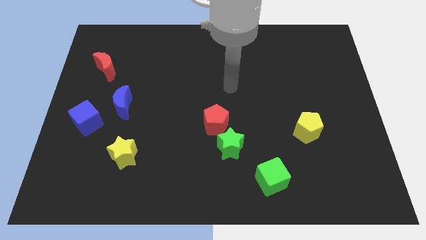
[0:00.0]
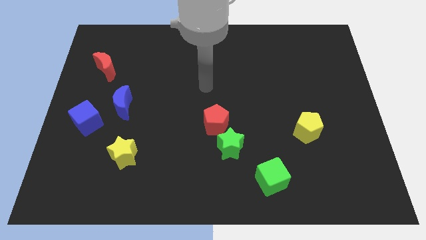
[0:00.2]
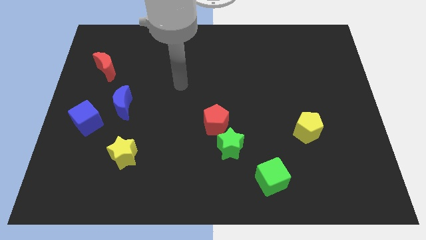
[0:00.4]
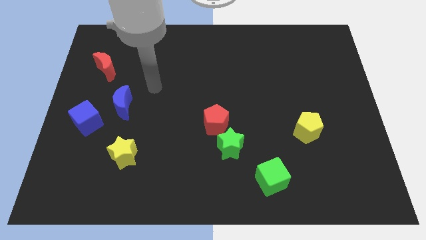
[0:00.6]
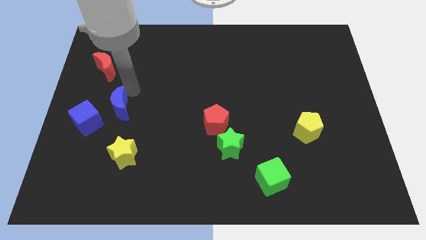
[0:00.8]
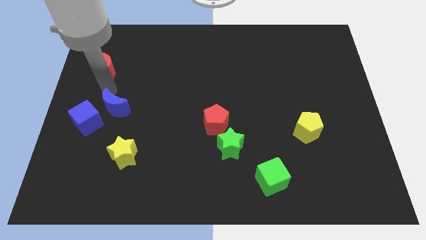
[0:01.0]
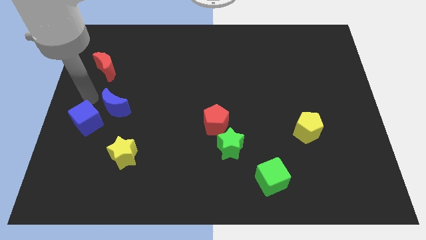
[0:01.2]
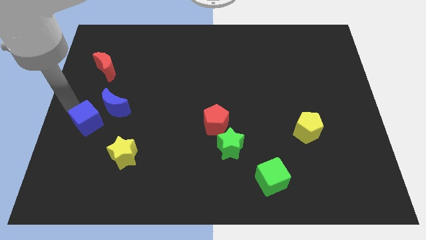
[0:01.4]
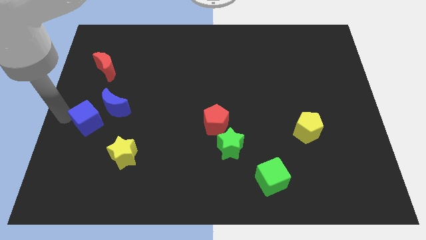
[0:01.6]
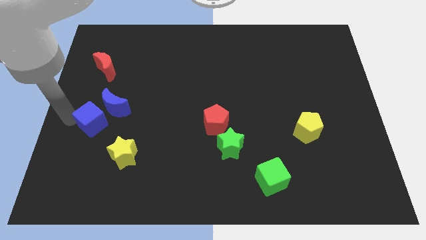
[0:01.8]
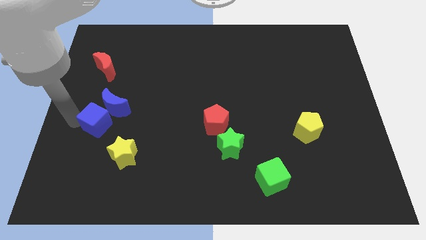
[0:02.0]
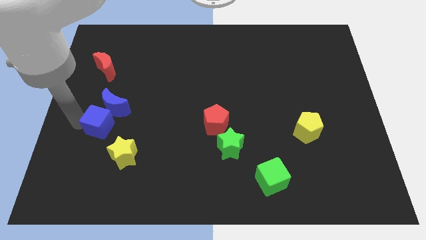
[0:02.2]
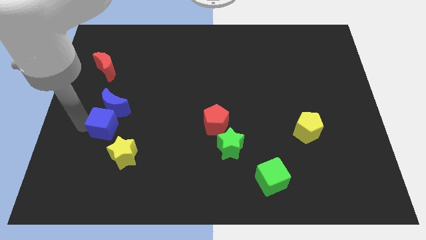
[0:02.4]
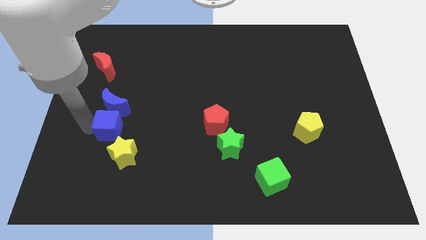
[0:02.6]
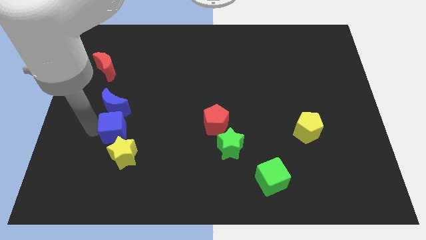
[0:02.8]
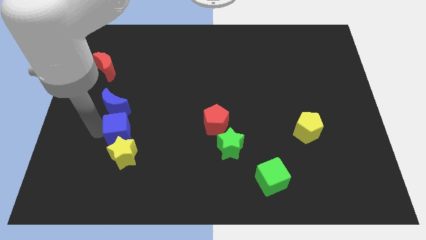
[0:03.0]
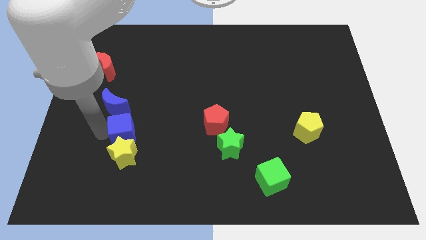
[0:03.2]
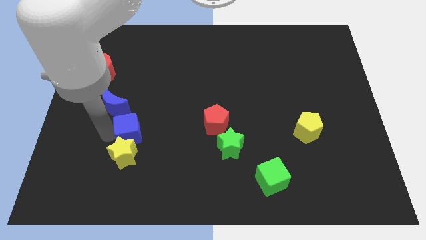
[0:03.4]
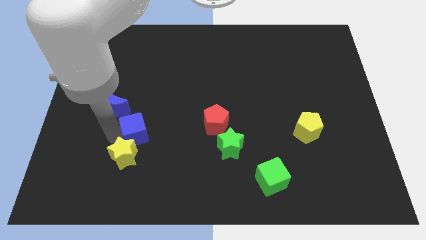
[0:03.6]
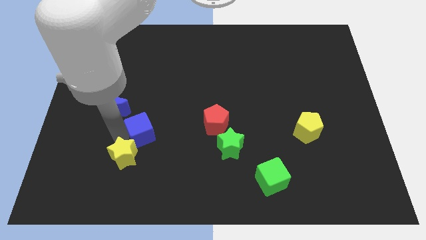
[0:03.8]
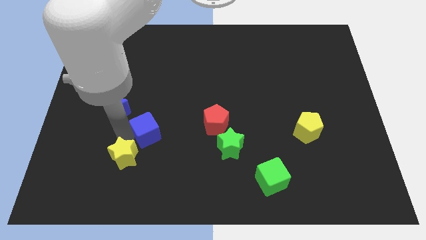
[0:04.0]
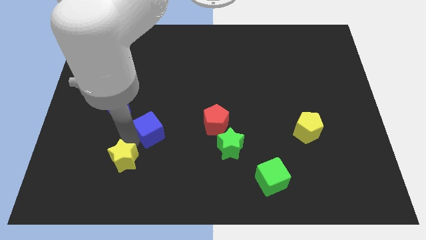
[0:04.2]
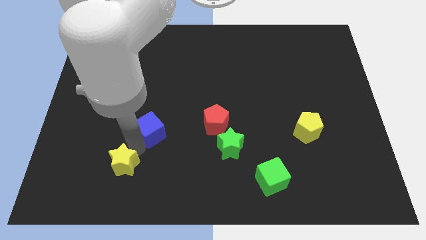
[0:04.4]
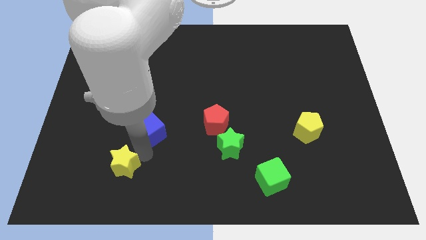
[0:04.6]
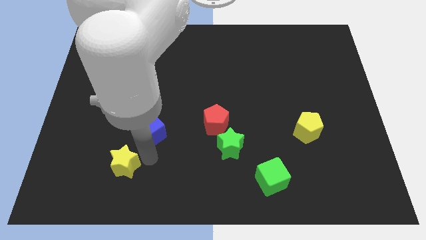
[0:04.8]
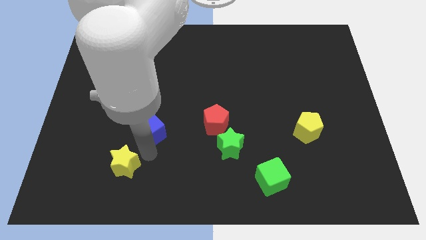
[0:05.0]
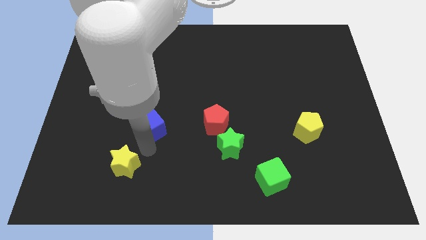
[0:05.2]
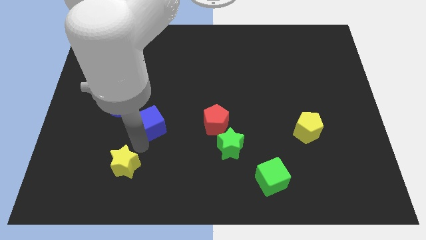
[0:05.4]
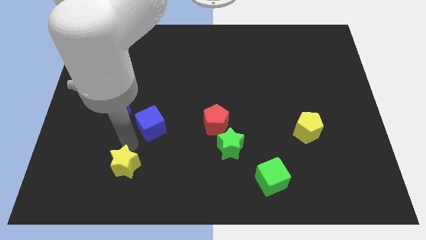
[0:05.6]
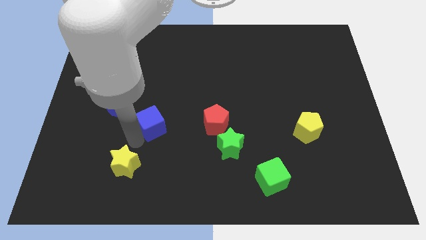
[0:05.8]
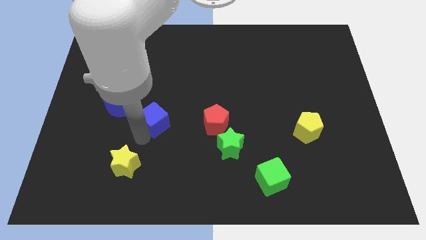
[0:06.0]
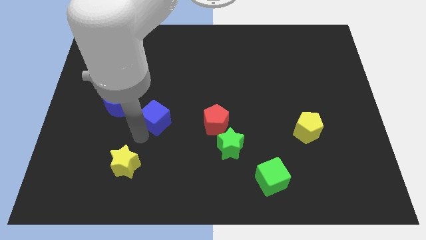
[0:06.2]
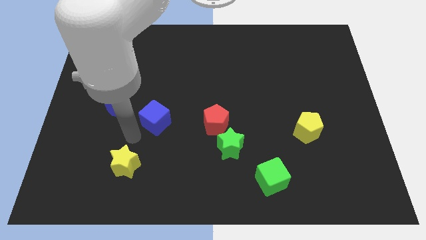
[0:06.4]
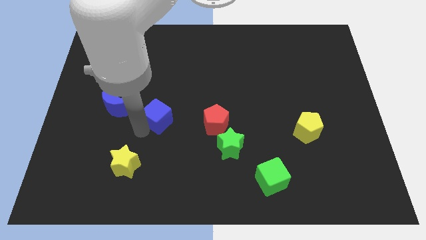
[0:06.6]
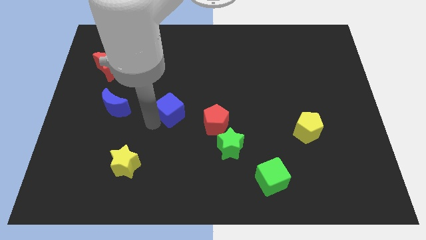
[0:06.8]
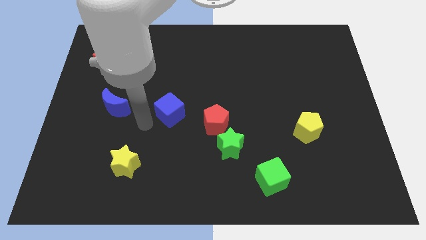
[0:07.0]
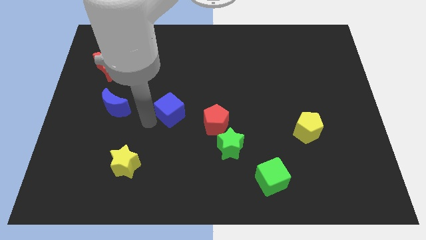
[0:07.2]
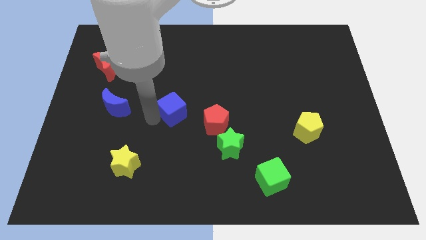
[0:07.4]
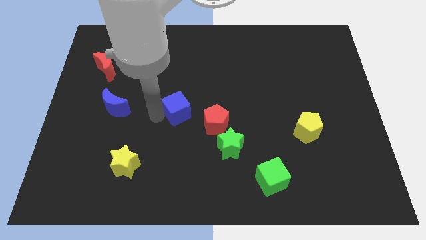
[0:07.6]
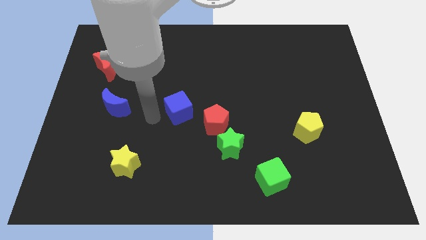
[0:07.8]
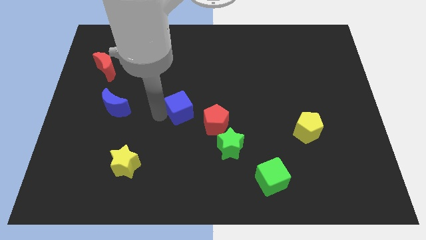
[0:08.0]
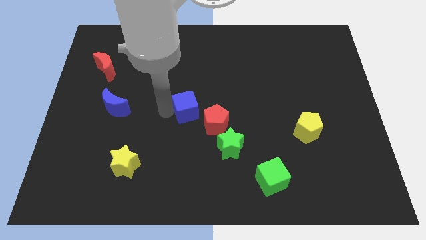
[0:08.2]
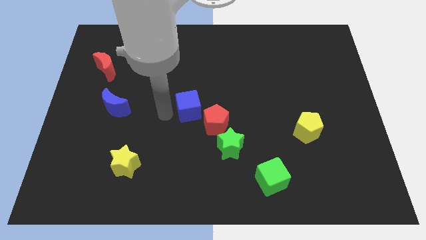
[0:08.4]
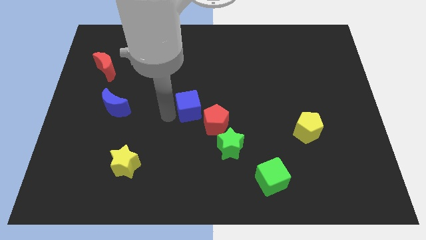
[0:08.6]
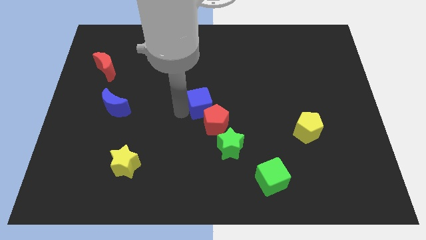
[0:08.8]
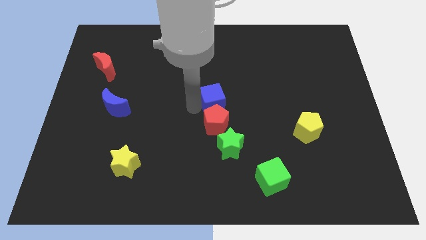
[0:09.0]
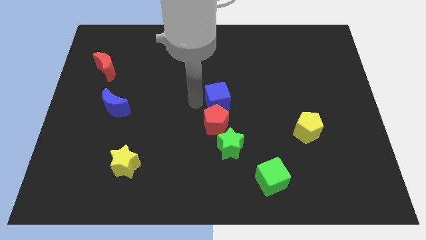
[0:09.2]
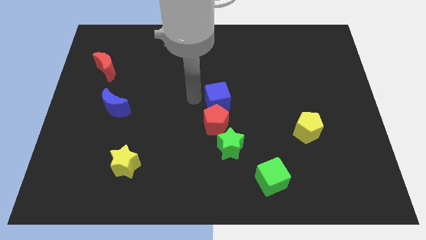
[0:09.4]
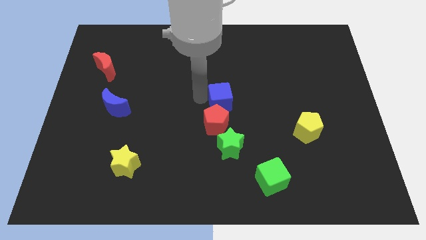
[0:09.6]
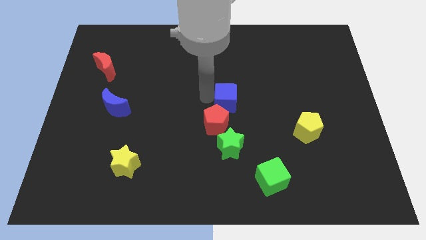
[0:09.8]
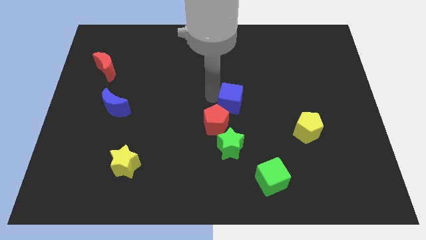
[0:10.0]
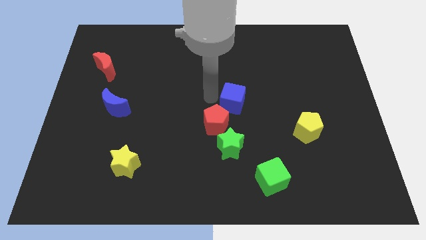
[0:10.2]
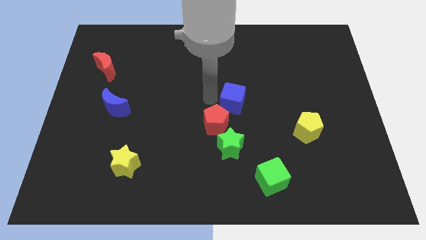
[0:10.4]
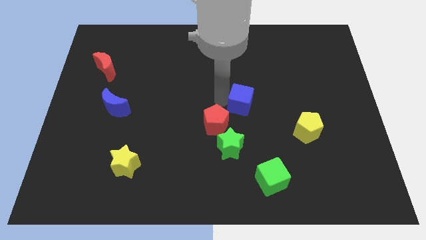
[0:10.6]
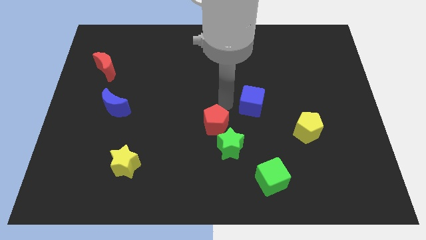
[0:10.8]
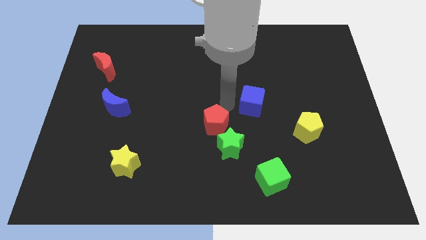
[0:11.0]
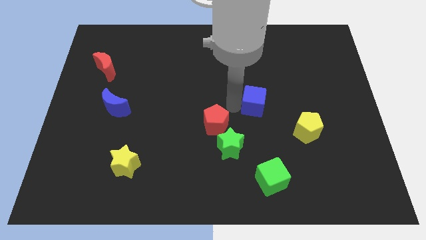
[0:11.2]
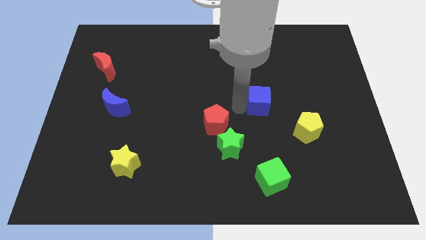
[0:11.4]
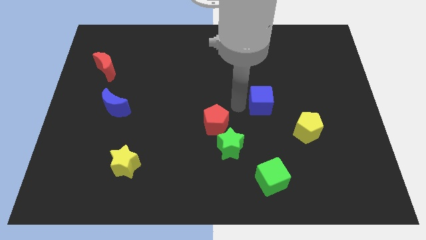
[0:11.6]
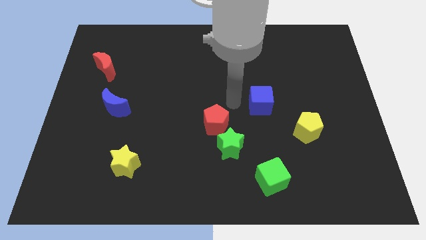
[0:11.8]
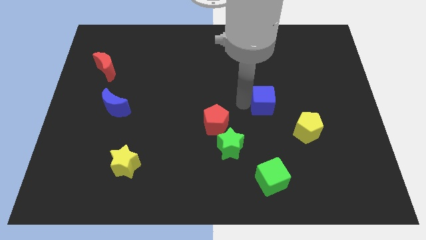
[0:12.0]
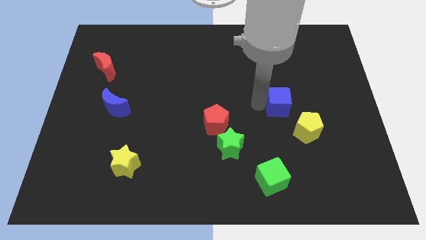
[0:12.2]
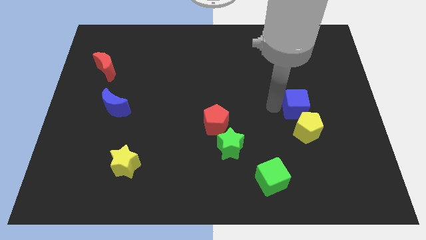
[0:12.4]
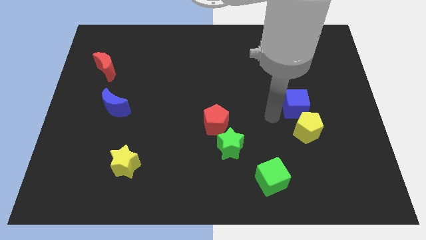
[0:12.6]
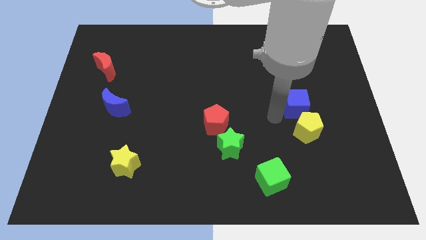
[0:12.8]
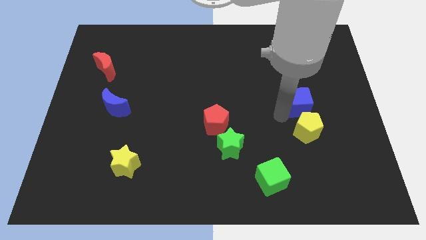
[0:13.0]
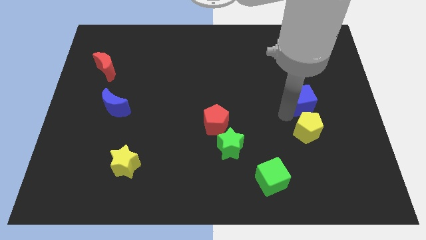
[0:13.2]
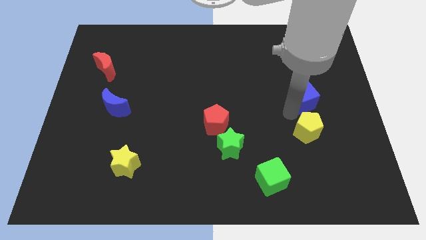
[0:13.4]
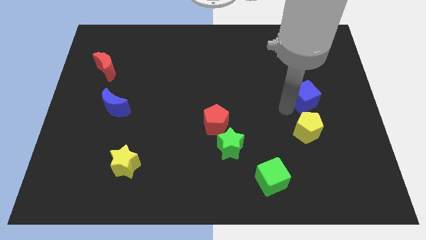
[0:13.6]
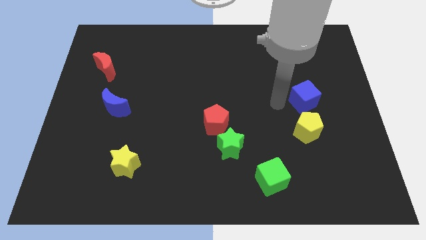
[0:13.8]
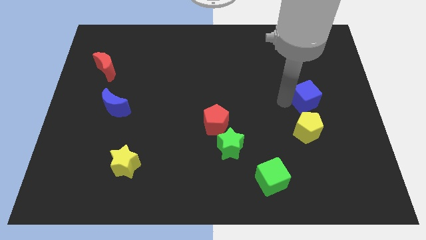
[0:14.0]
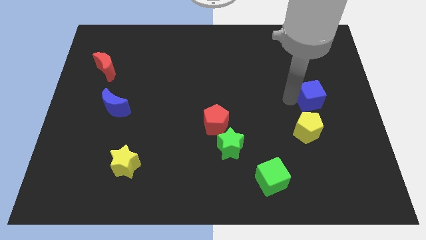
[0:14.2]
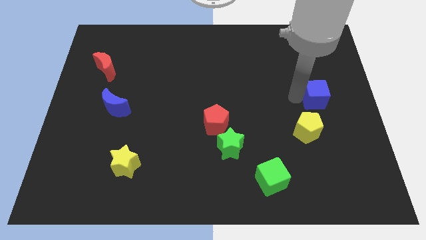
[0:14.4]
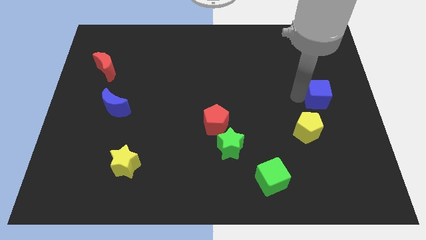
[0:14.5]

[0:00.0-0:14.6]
move the blue cube to the right side

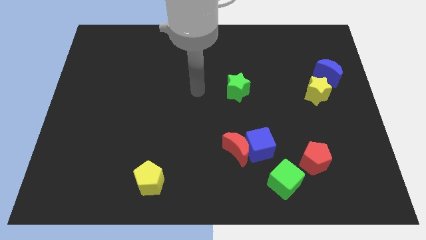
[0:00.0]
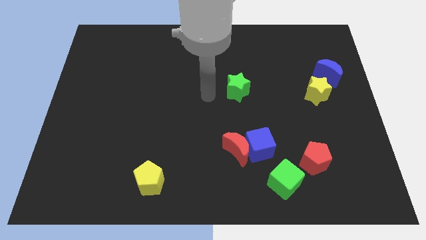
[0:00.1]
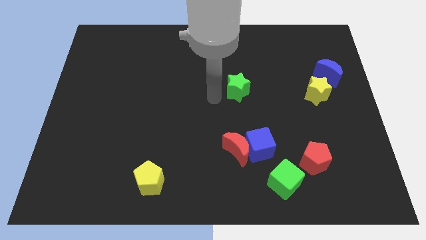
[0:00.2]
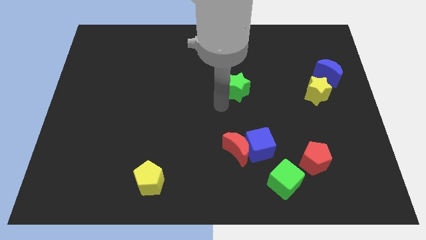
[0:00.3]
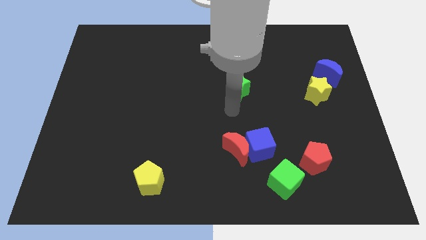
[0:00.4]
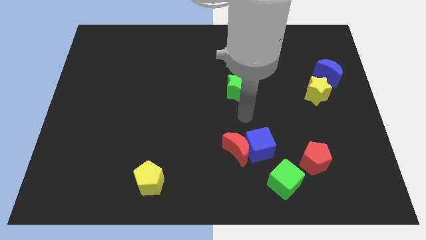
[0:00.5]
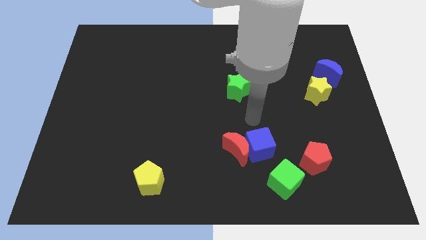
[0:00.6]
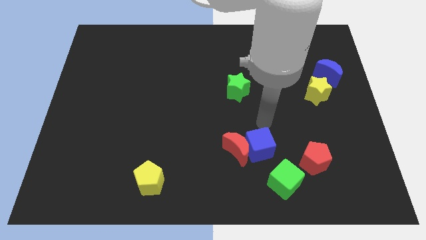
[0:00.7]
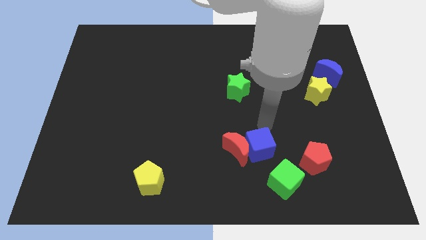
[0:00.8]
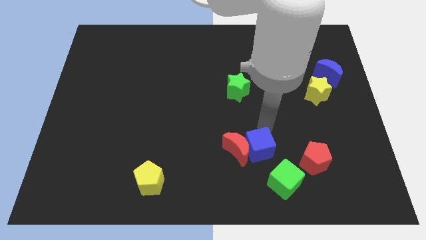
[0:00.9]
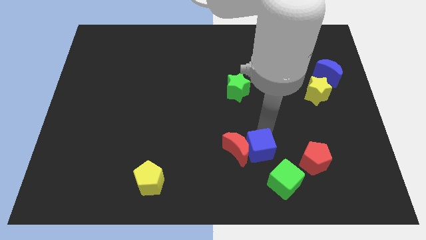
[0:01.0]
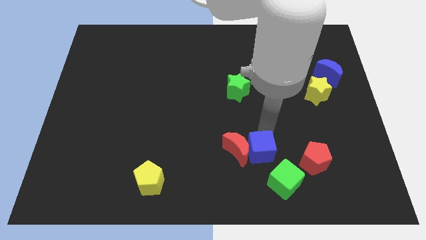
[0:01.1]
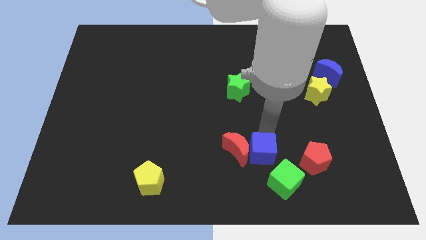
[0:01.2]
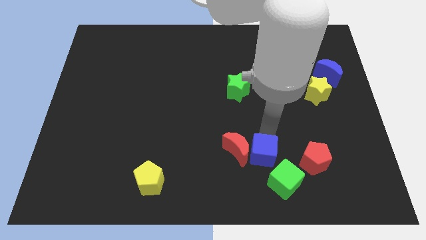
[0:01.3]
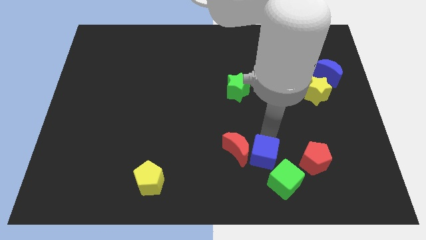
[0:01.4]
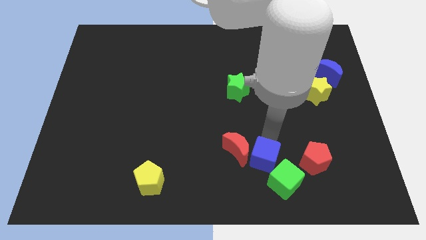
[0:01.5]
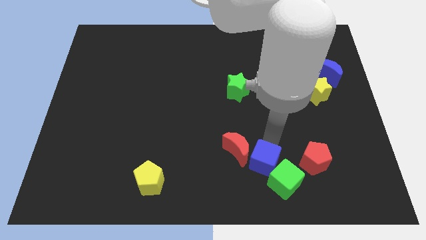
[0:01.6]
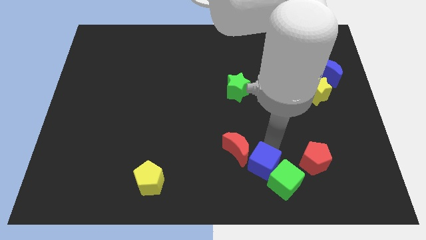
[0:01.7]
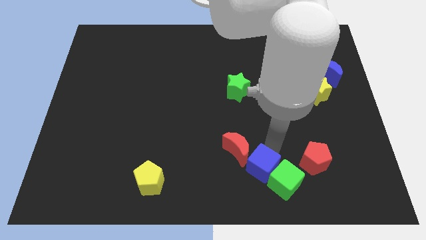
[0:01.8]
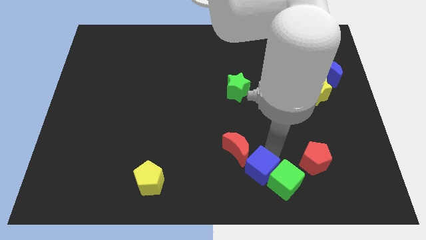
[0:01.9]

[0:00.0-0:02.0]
move the blue cube to the bottom side
